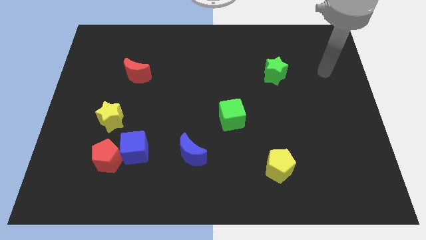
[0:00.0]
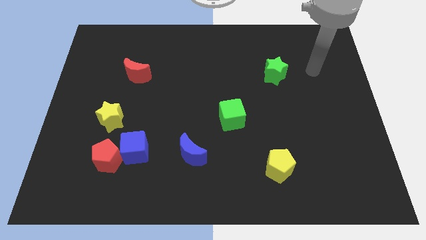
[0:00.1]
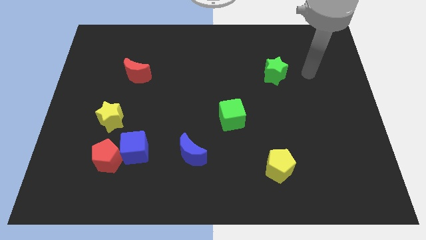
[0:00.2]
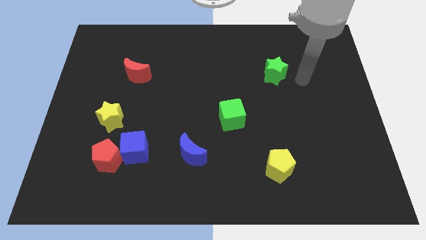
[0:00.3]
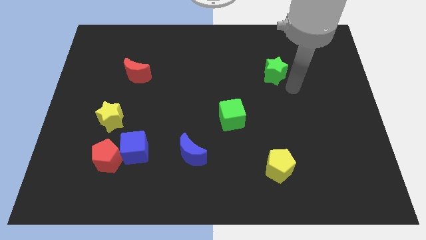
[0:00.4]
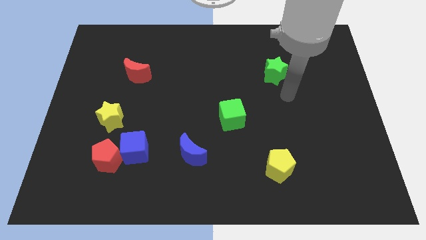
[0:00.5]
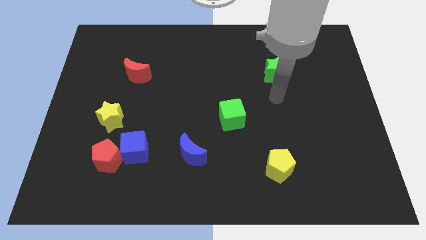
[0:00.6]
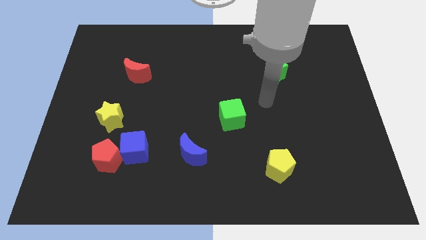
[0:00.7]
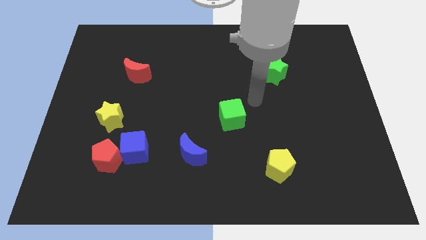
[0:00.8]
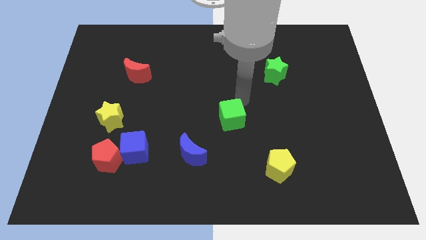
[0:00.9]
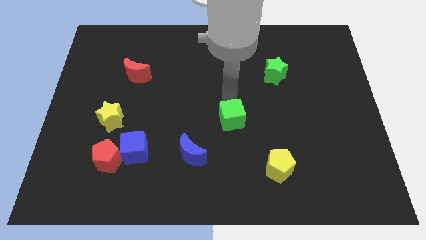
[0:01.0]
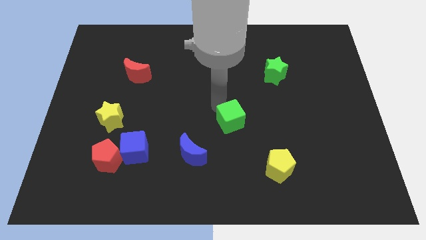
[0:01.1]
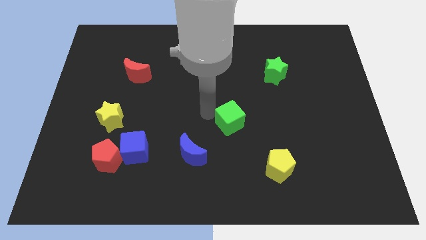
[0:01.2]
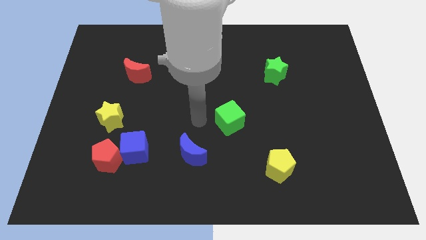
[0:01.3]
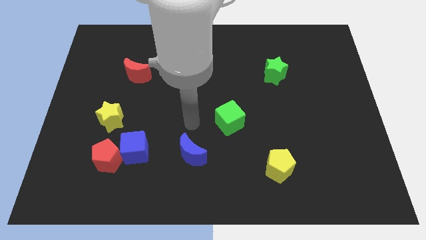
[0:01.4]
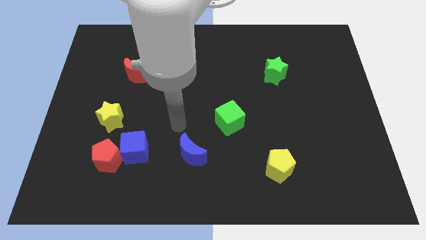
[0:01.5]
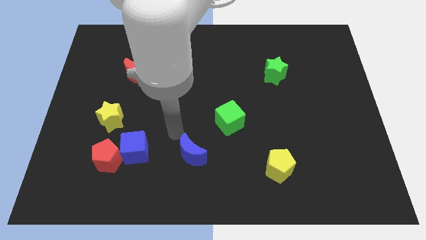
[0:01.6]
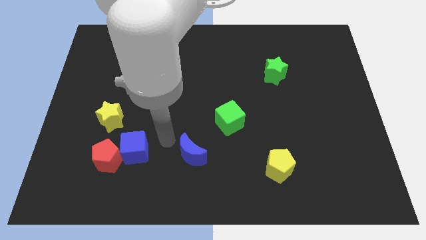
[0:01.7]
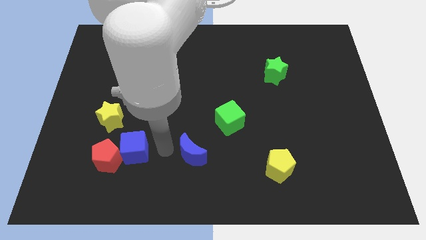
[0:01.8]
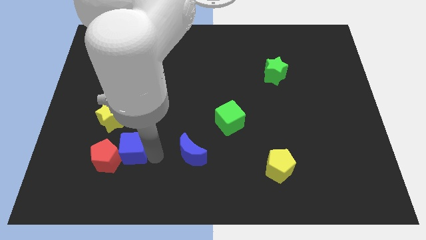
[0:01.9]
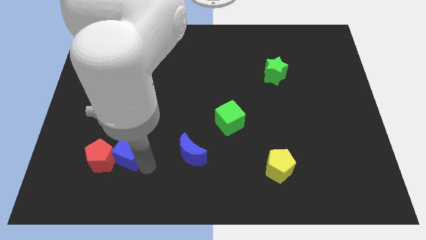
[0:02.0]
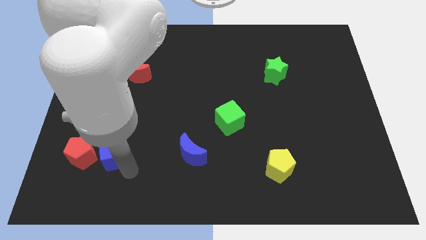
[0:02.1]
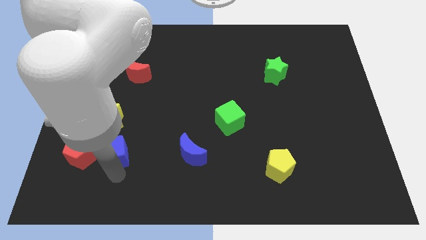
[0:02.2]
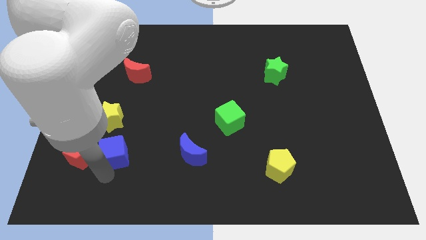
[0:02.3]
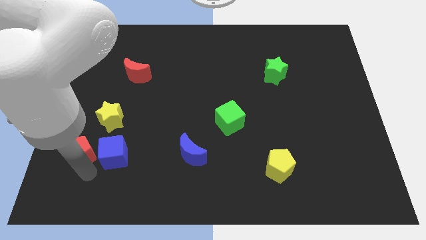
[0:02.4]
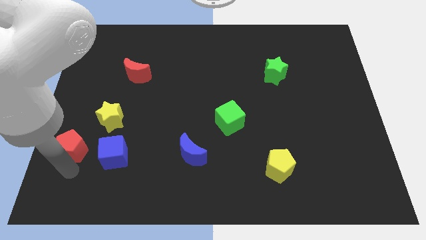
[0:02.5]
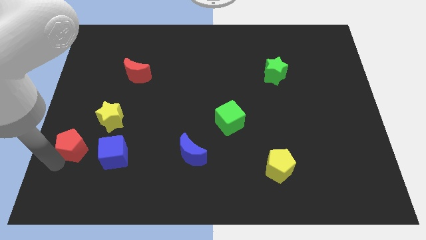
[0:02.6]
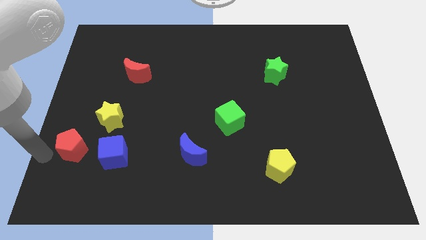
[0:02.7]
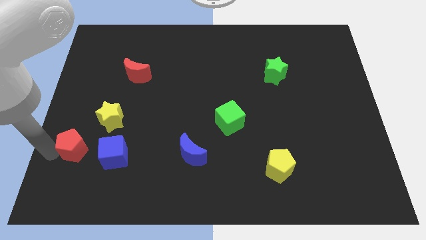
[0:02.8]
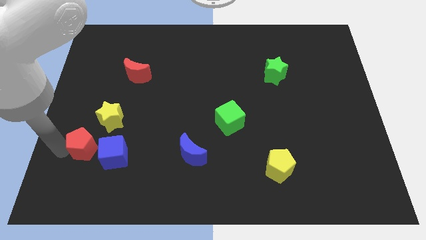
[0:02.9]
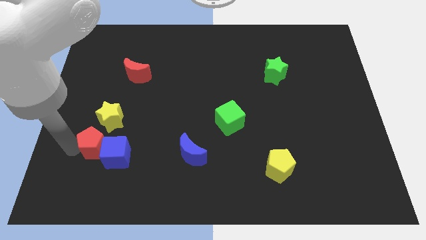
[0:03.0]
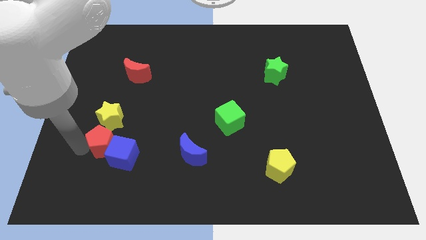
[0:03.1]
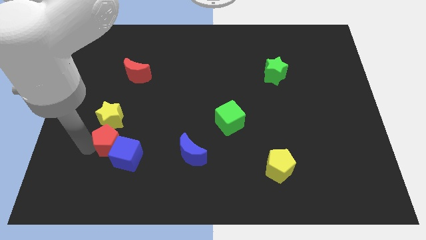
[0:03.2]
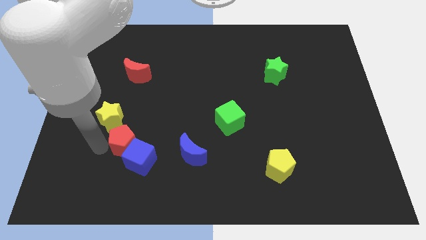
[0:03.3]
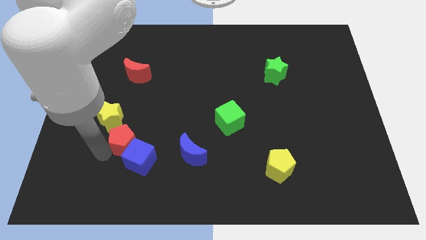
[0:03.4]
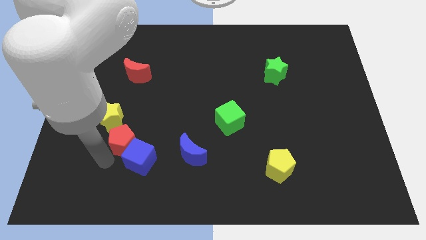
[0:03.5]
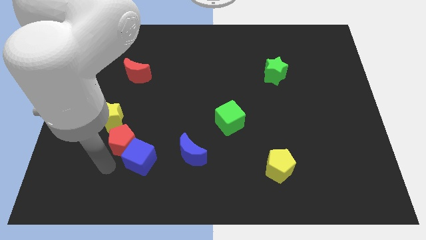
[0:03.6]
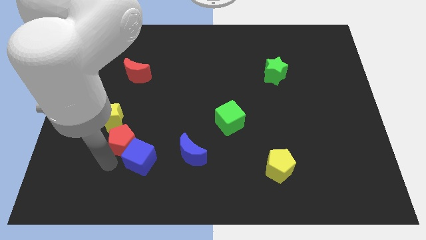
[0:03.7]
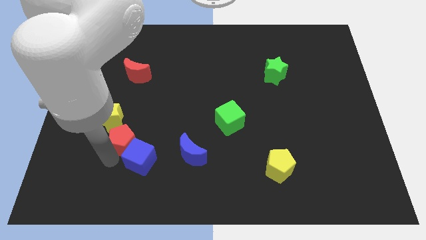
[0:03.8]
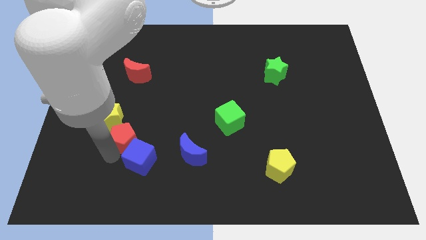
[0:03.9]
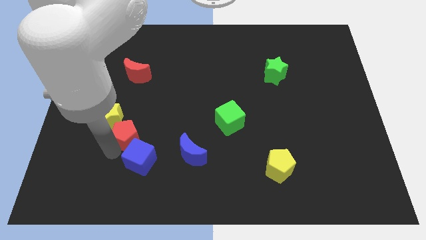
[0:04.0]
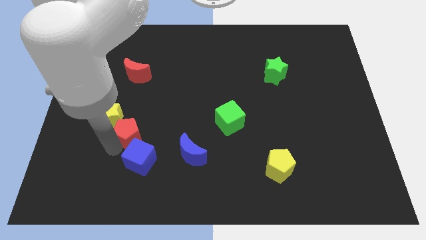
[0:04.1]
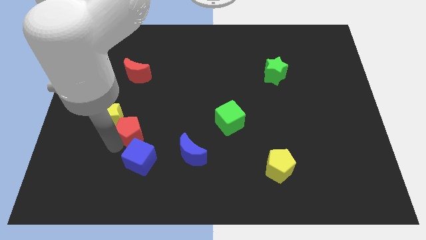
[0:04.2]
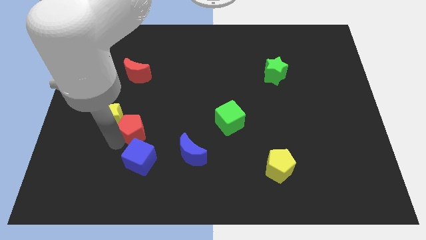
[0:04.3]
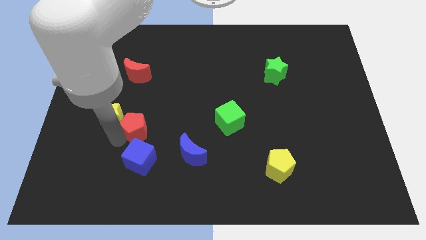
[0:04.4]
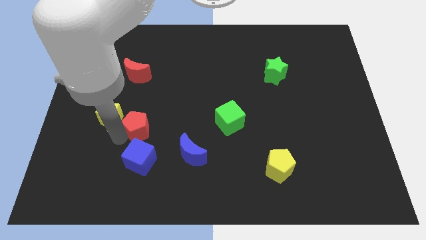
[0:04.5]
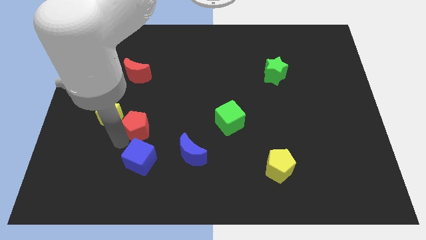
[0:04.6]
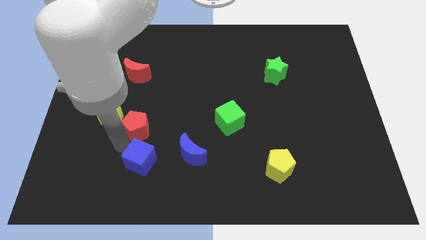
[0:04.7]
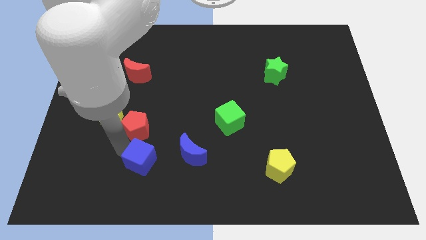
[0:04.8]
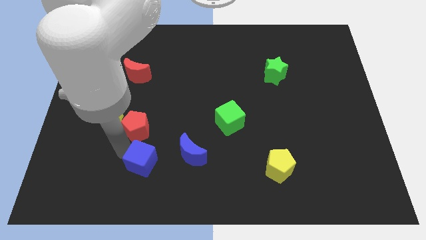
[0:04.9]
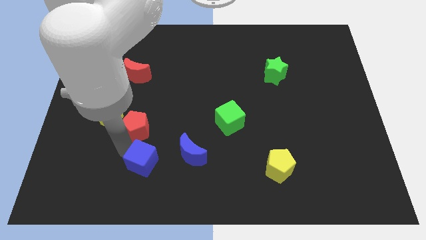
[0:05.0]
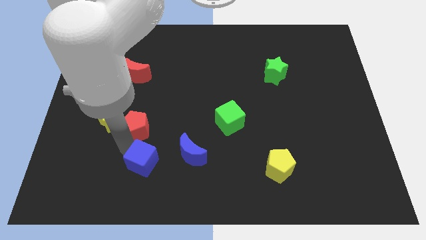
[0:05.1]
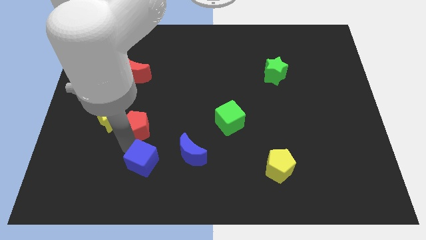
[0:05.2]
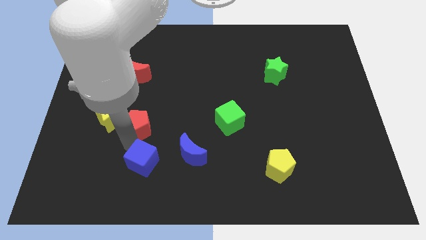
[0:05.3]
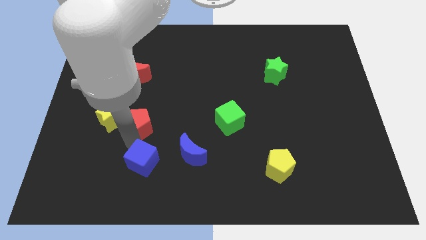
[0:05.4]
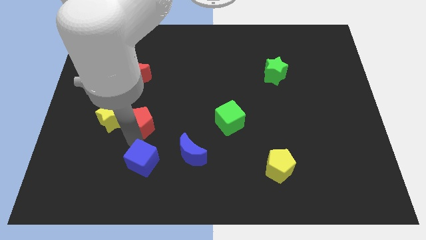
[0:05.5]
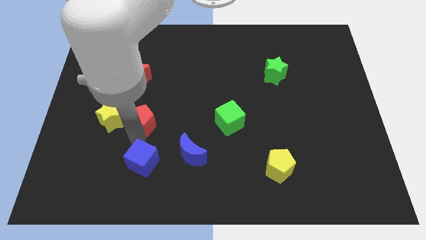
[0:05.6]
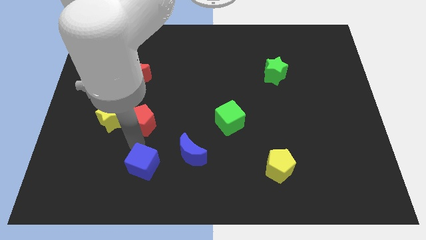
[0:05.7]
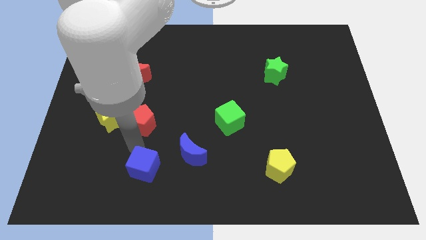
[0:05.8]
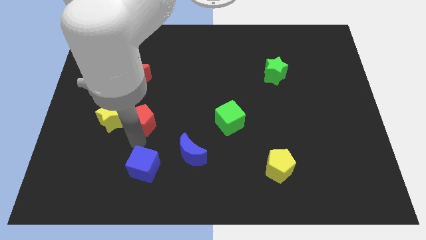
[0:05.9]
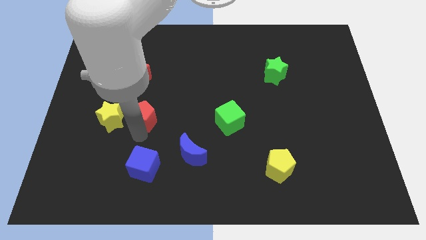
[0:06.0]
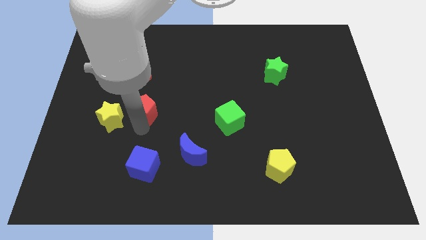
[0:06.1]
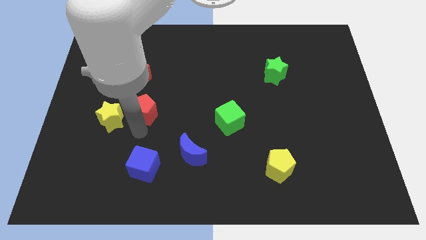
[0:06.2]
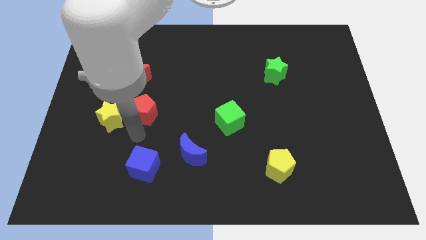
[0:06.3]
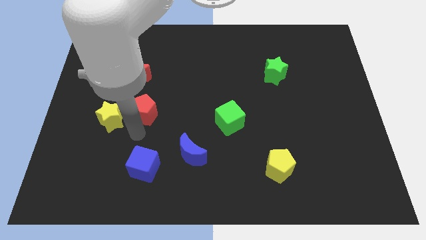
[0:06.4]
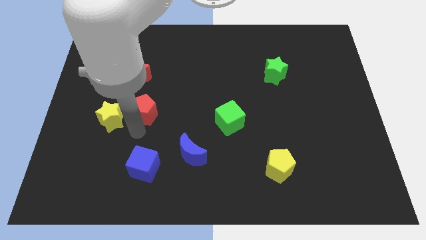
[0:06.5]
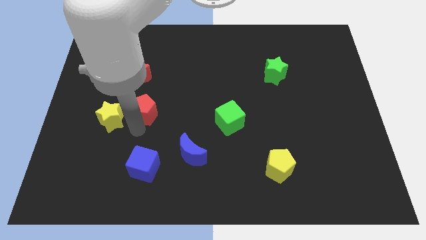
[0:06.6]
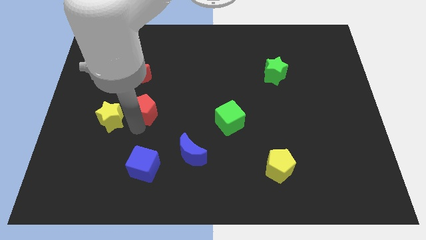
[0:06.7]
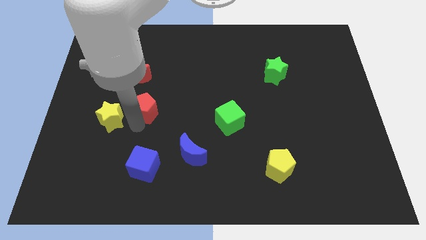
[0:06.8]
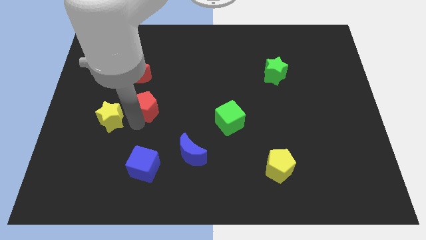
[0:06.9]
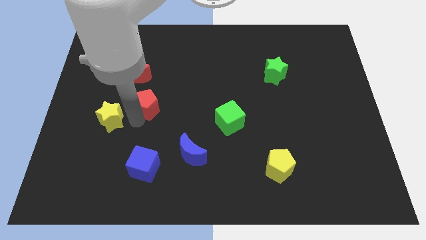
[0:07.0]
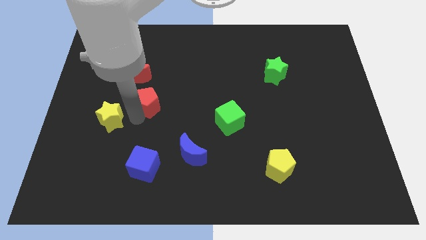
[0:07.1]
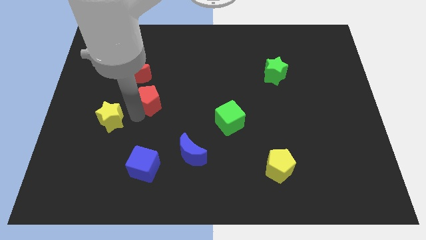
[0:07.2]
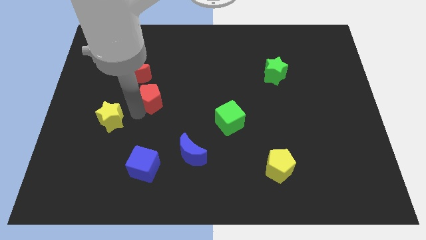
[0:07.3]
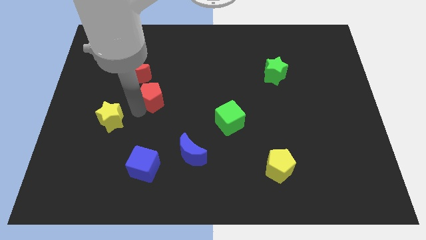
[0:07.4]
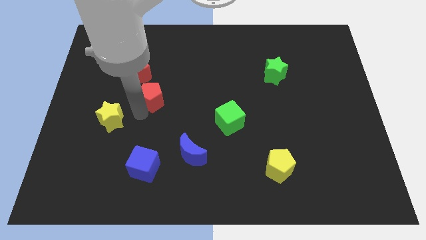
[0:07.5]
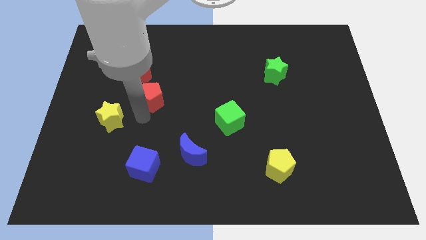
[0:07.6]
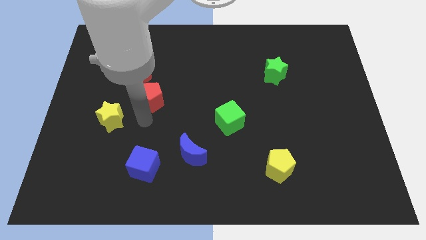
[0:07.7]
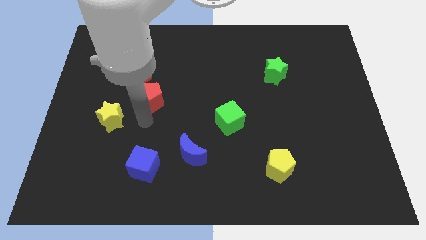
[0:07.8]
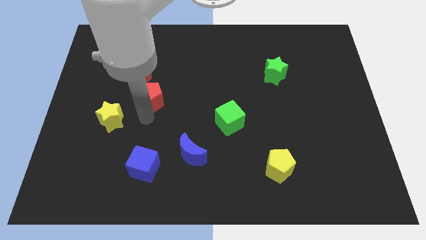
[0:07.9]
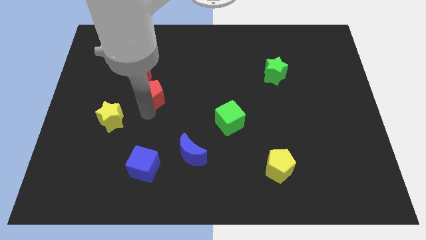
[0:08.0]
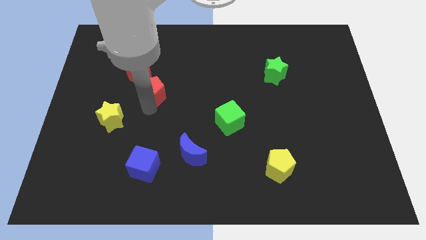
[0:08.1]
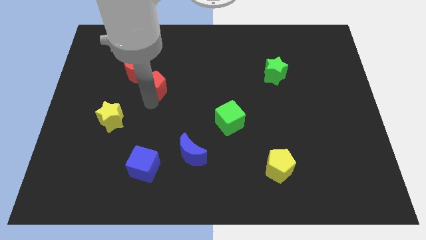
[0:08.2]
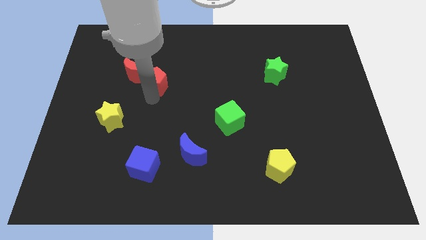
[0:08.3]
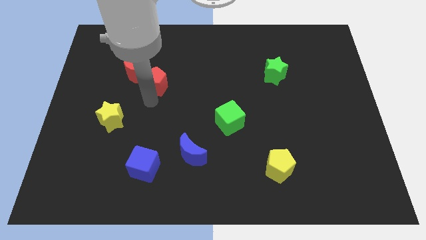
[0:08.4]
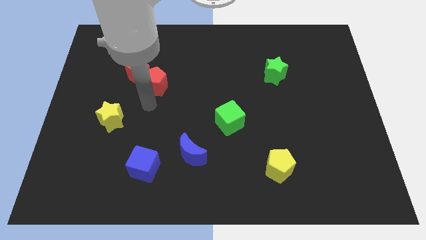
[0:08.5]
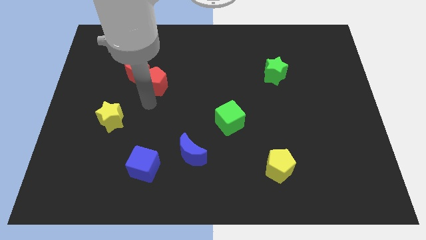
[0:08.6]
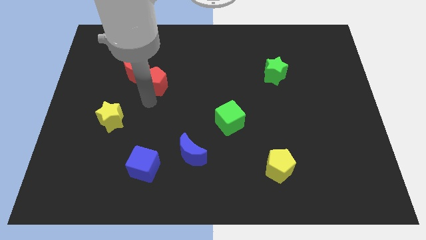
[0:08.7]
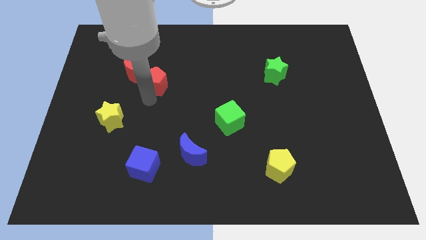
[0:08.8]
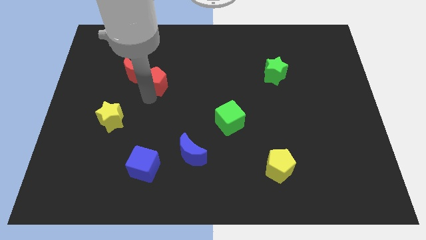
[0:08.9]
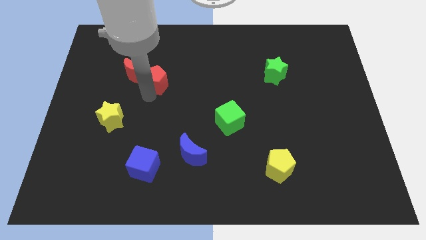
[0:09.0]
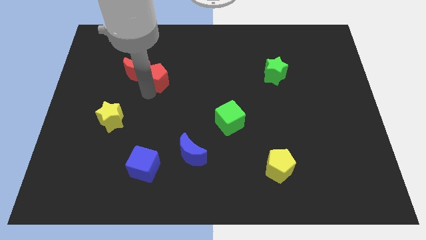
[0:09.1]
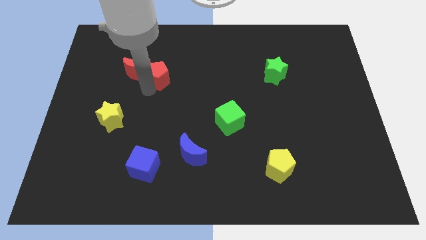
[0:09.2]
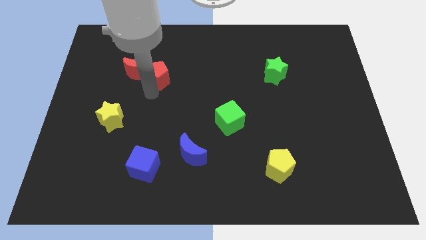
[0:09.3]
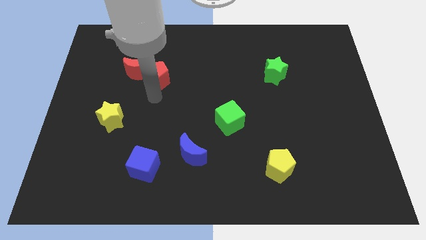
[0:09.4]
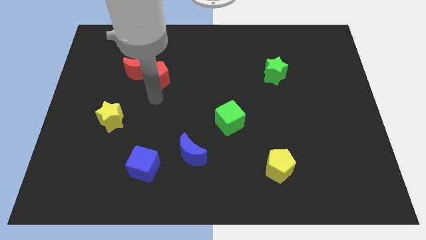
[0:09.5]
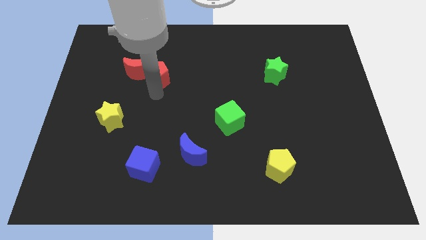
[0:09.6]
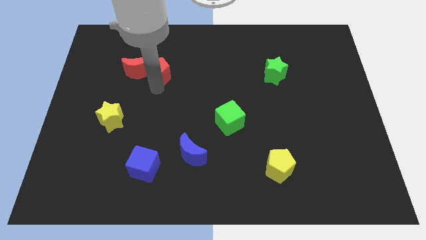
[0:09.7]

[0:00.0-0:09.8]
slide the red pentagon to the top right of the red moon
